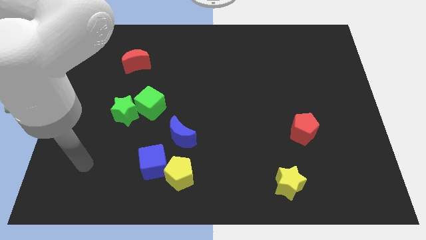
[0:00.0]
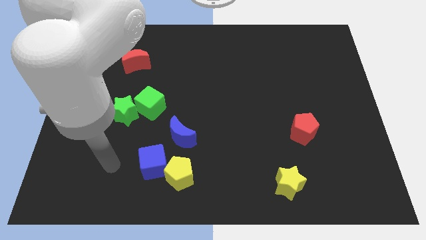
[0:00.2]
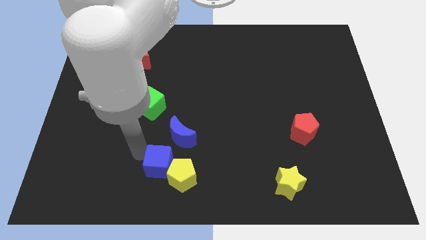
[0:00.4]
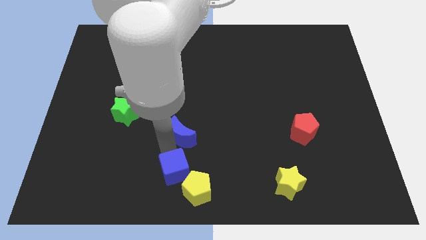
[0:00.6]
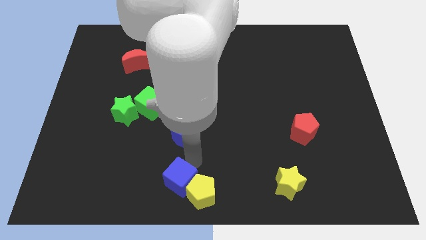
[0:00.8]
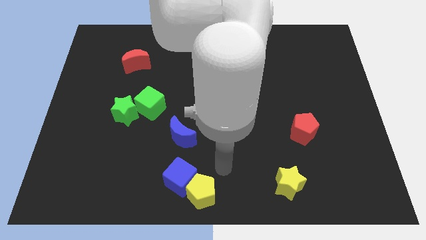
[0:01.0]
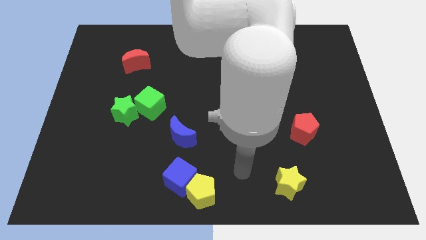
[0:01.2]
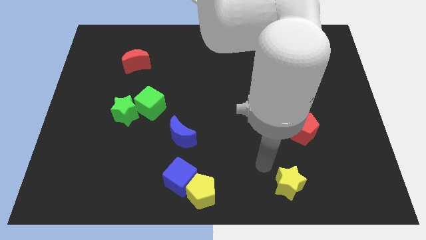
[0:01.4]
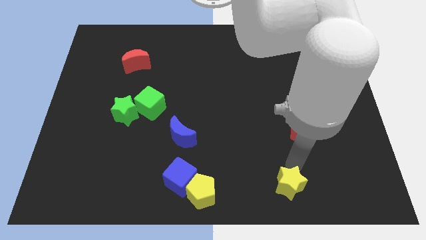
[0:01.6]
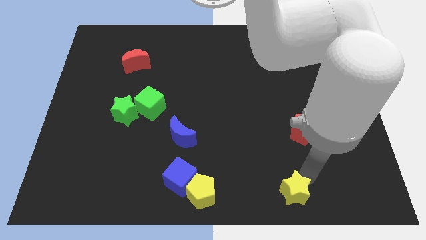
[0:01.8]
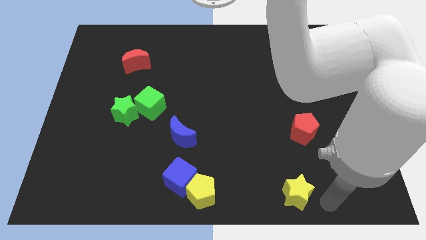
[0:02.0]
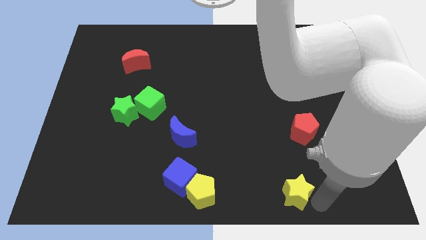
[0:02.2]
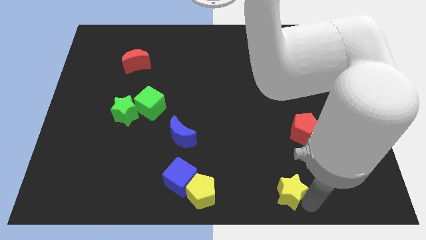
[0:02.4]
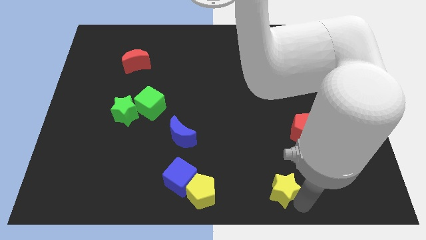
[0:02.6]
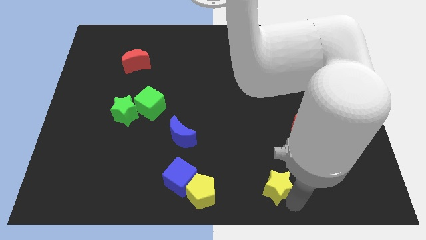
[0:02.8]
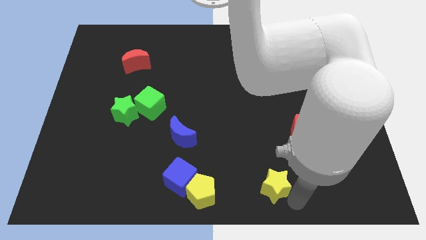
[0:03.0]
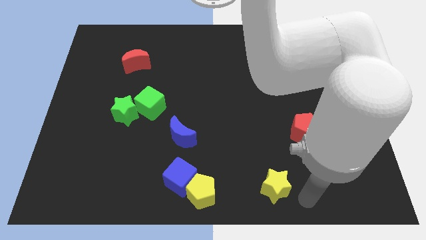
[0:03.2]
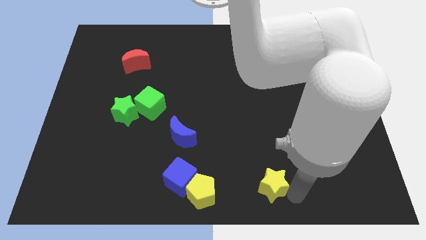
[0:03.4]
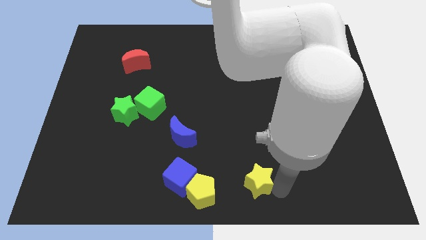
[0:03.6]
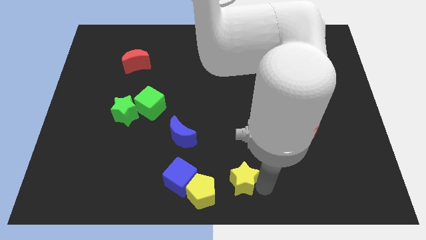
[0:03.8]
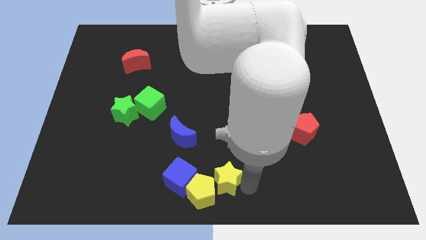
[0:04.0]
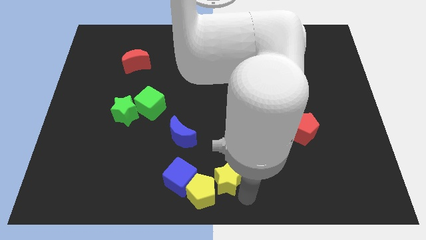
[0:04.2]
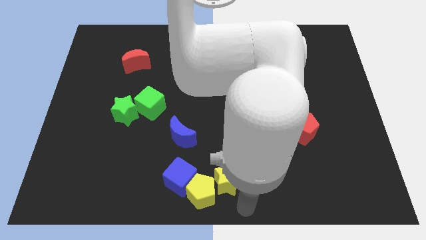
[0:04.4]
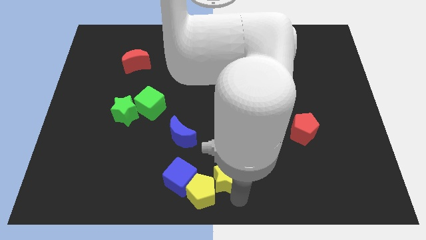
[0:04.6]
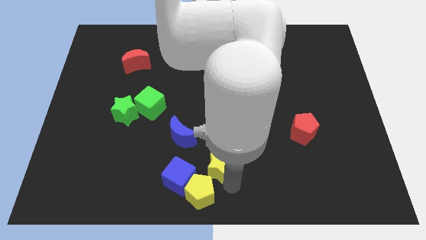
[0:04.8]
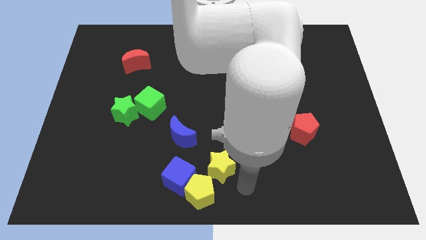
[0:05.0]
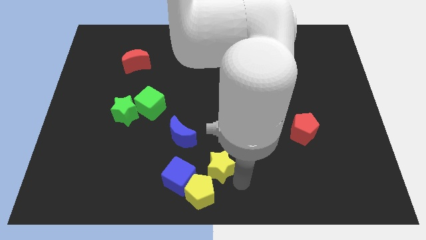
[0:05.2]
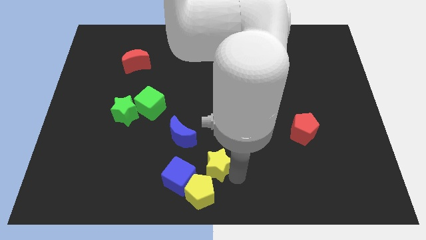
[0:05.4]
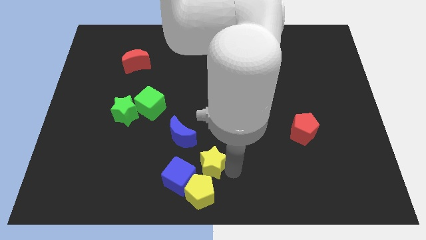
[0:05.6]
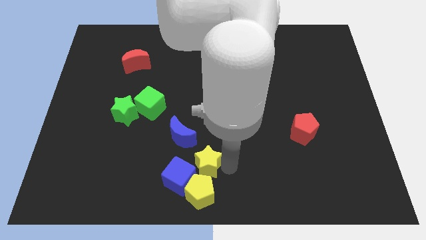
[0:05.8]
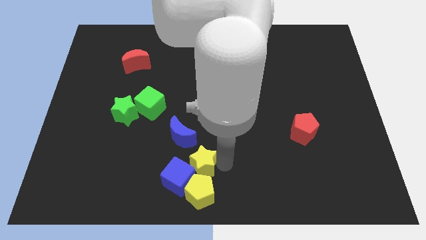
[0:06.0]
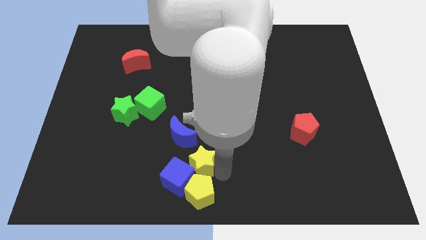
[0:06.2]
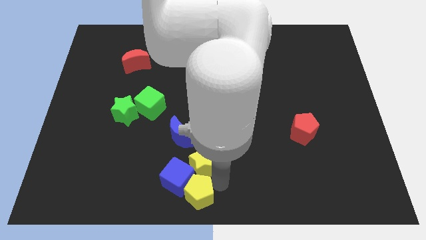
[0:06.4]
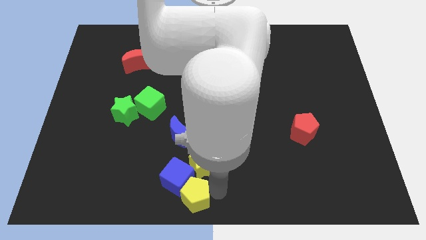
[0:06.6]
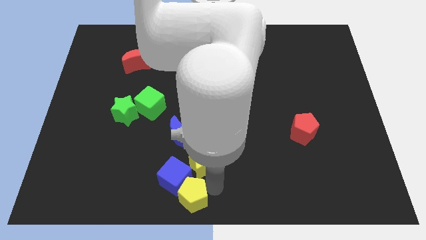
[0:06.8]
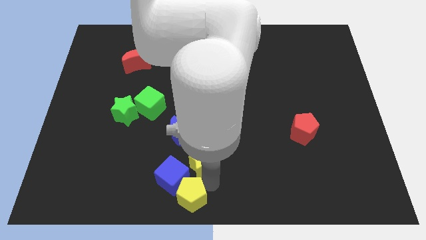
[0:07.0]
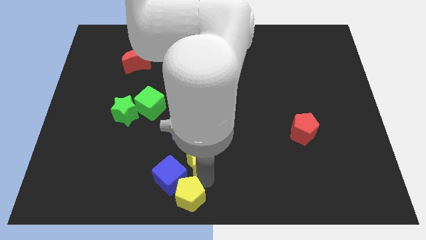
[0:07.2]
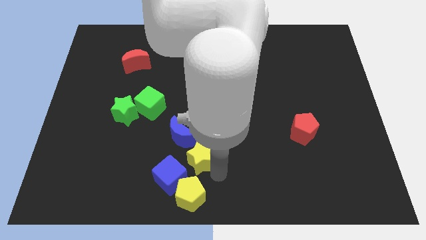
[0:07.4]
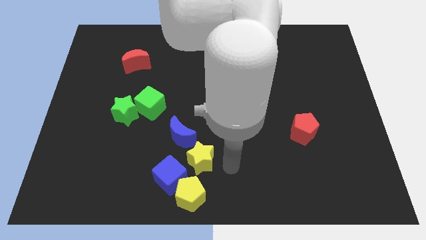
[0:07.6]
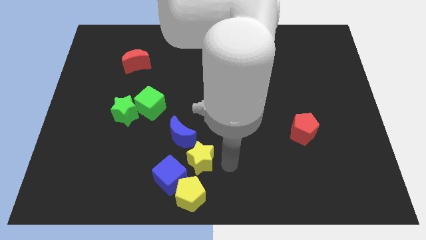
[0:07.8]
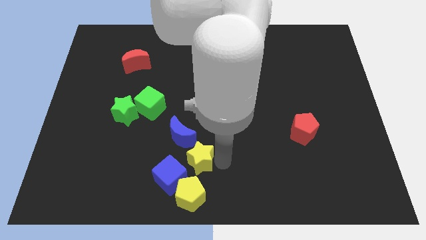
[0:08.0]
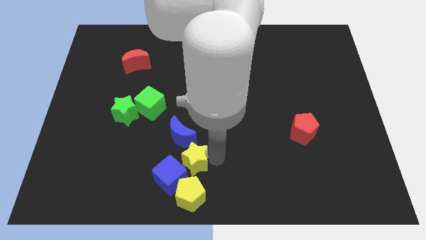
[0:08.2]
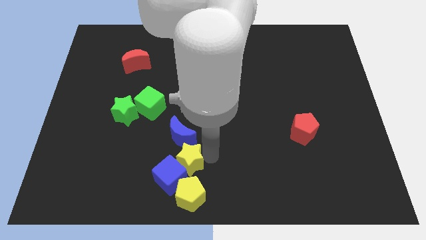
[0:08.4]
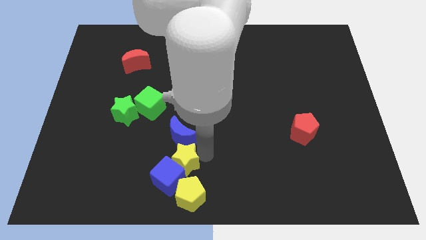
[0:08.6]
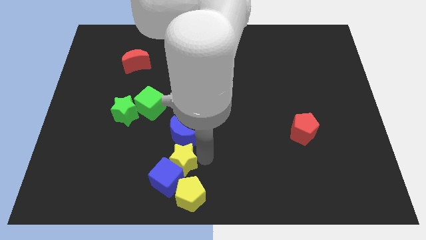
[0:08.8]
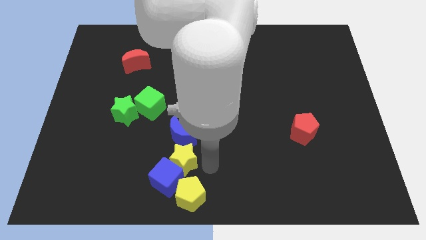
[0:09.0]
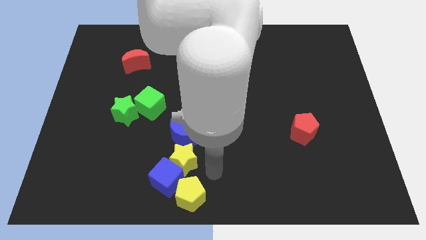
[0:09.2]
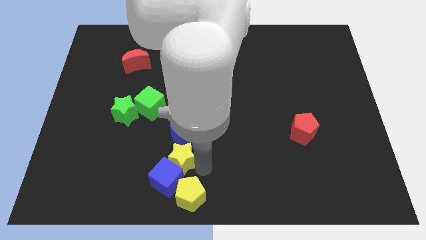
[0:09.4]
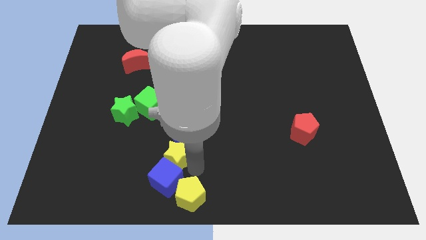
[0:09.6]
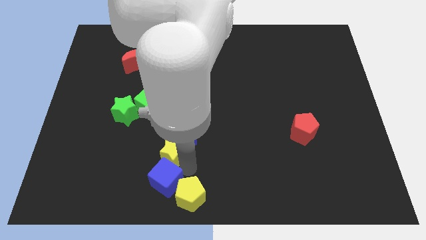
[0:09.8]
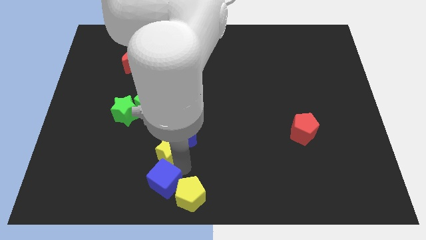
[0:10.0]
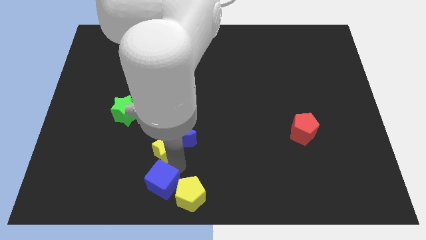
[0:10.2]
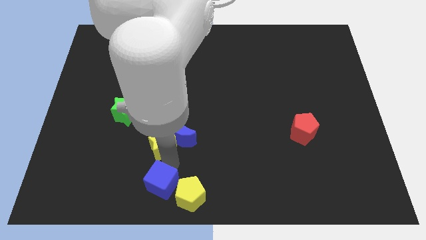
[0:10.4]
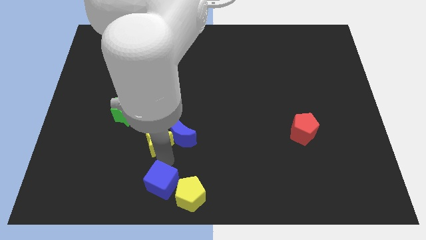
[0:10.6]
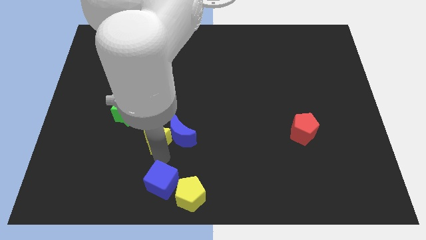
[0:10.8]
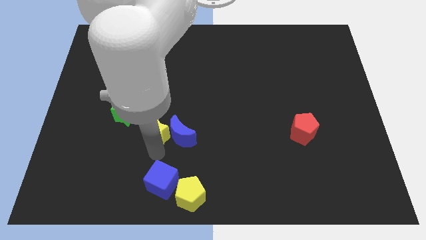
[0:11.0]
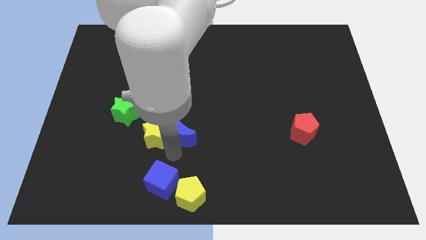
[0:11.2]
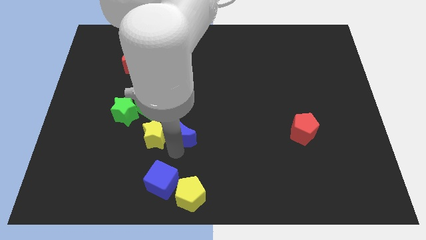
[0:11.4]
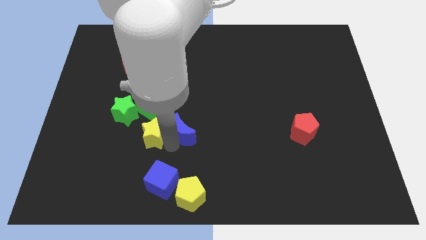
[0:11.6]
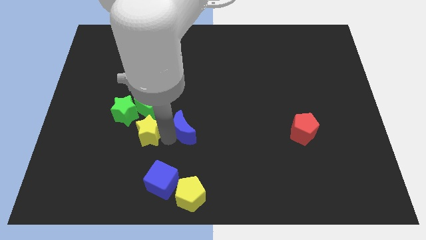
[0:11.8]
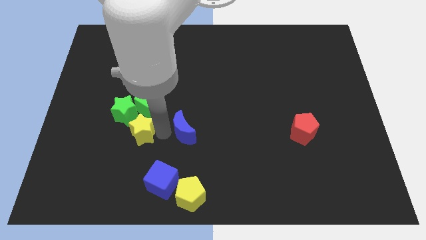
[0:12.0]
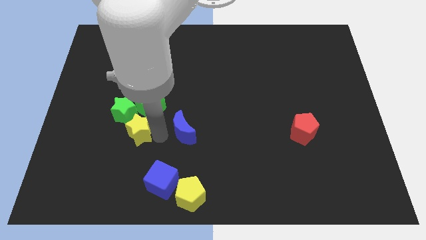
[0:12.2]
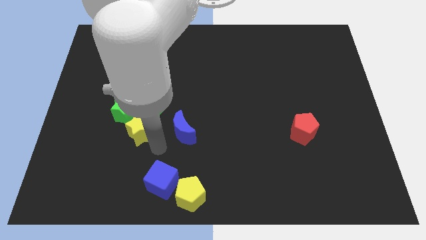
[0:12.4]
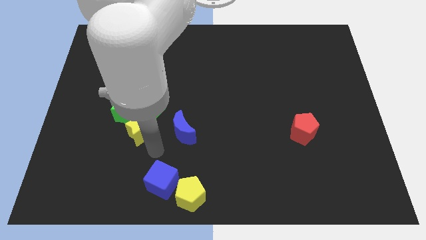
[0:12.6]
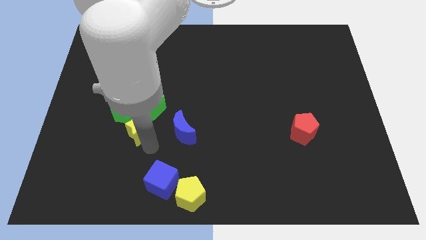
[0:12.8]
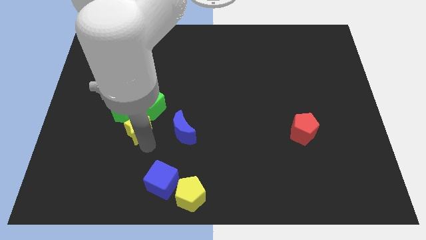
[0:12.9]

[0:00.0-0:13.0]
push the yellow star towards the green star
